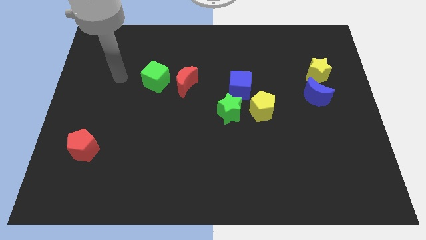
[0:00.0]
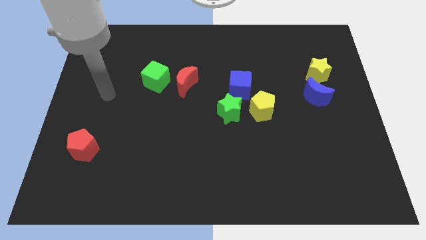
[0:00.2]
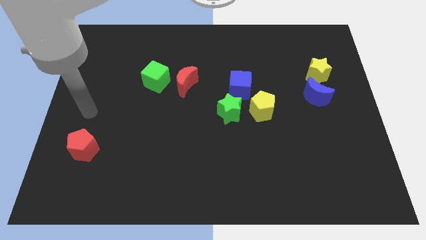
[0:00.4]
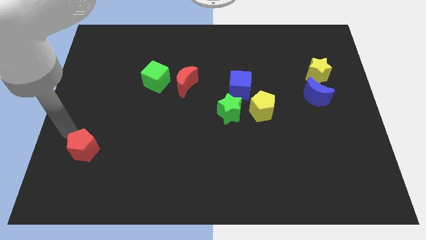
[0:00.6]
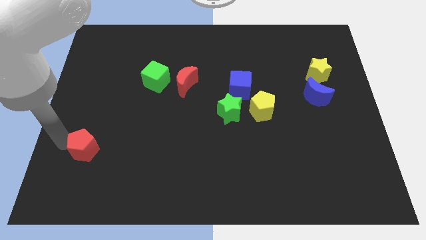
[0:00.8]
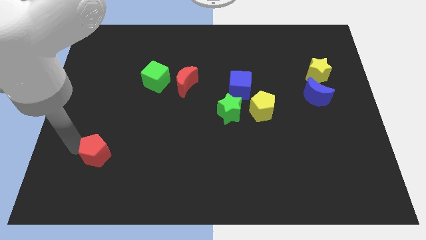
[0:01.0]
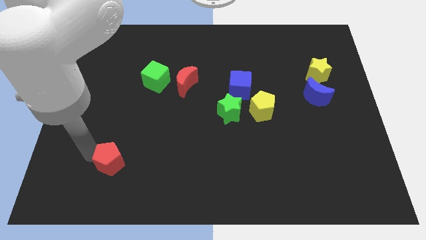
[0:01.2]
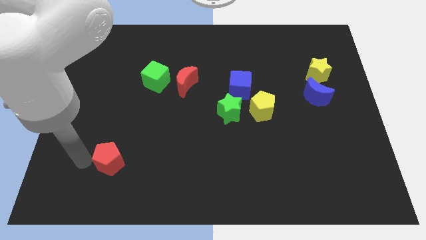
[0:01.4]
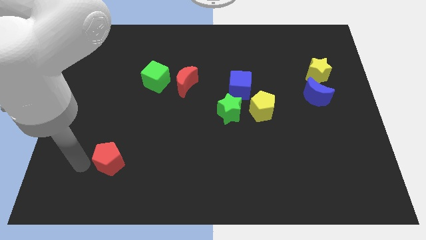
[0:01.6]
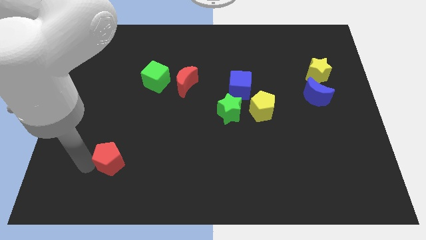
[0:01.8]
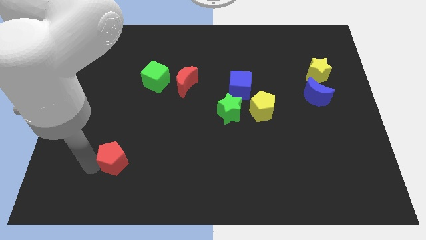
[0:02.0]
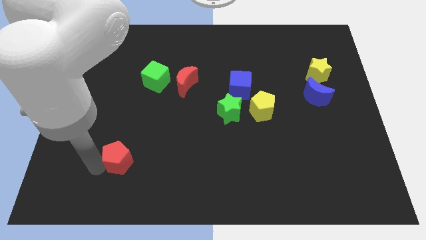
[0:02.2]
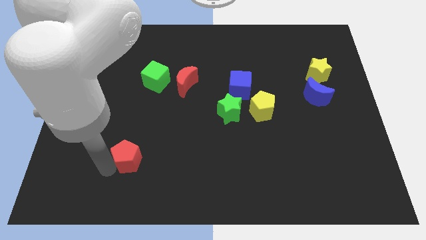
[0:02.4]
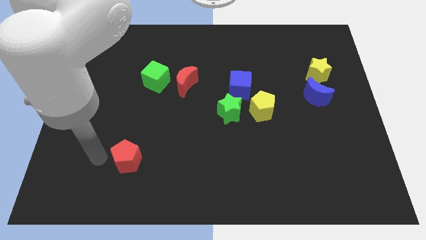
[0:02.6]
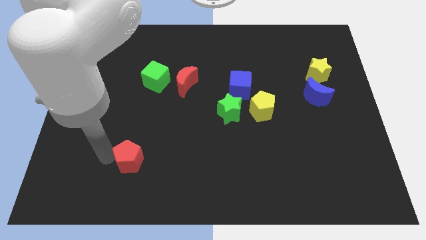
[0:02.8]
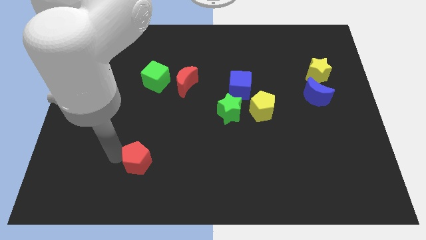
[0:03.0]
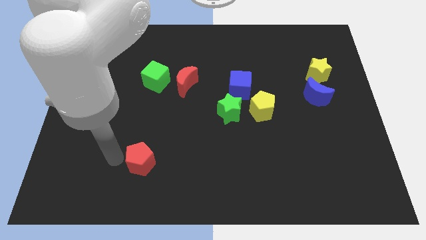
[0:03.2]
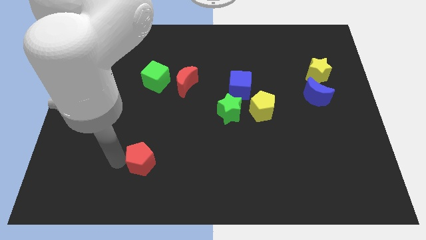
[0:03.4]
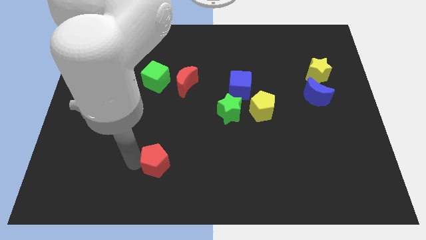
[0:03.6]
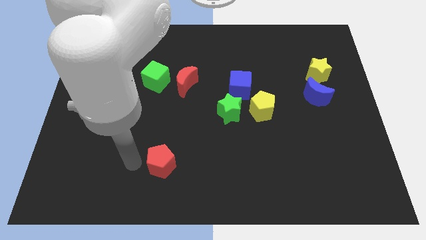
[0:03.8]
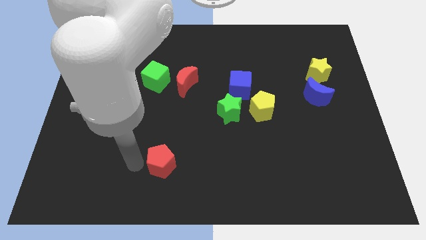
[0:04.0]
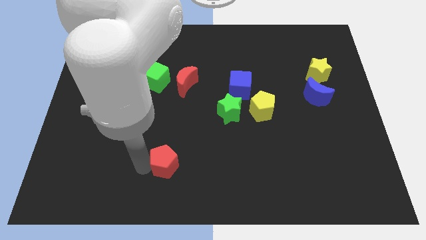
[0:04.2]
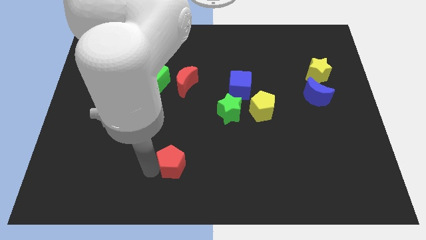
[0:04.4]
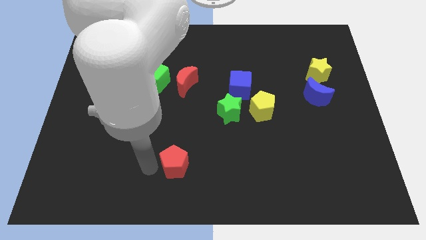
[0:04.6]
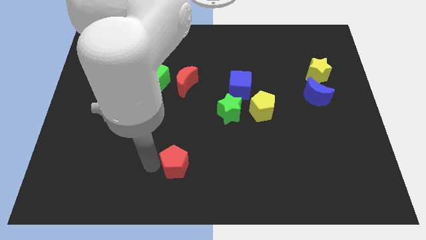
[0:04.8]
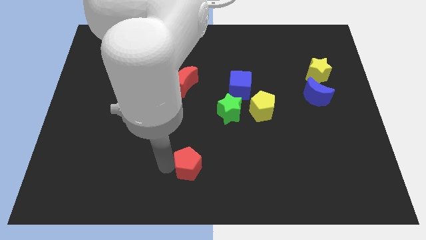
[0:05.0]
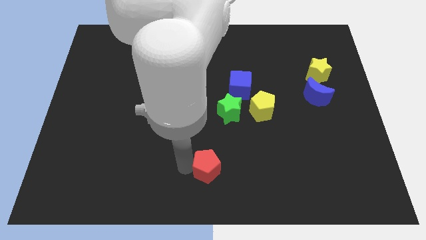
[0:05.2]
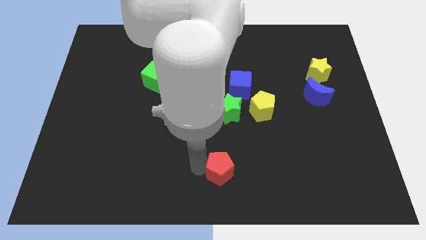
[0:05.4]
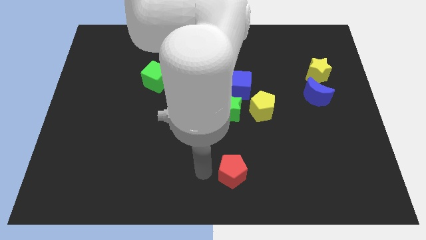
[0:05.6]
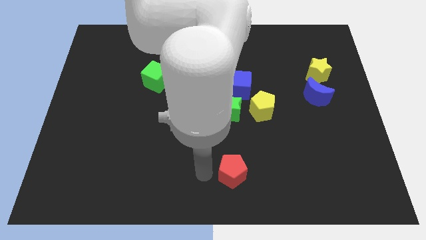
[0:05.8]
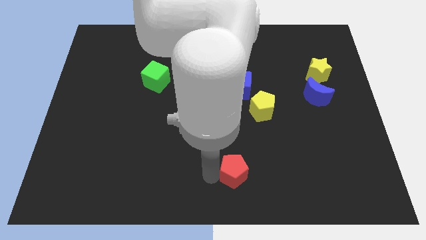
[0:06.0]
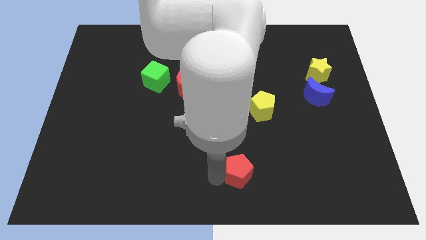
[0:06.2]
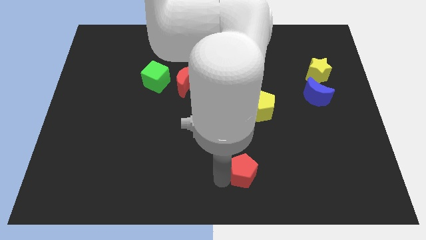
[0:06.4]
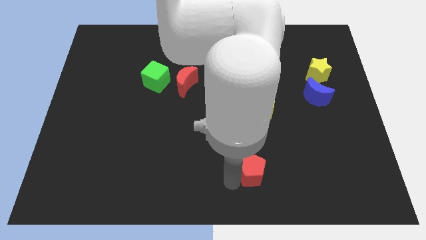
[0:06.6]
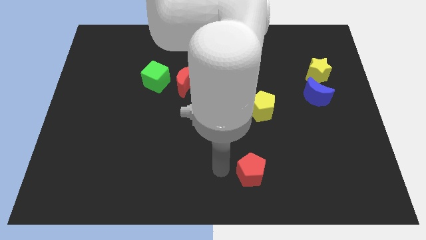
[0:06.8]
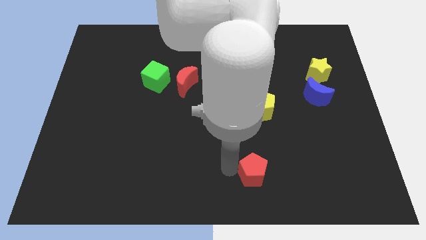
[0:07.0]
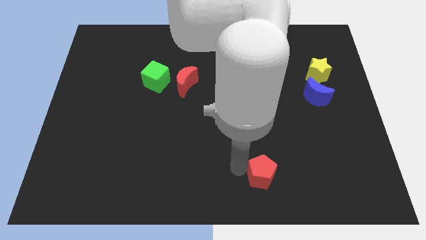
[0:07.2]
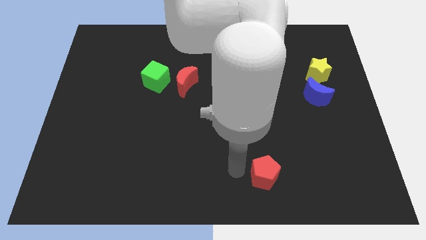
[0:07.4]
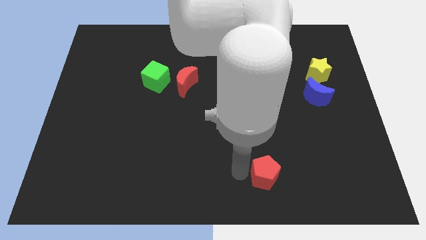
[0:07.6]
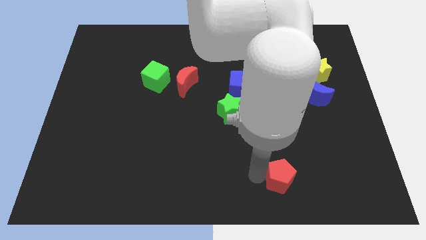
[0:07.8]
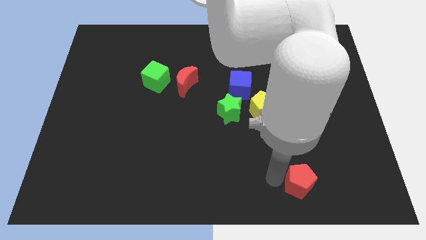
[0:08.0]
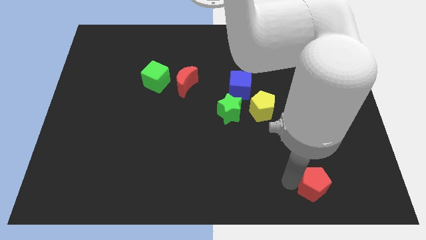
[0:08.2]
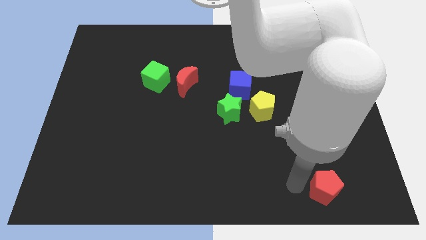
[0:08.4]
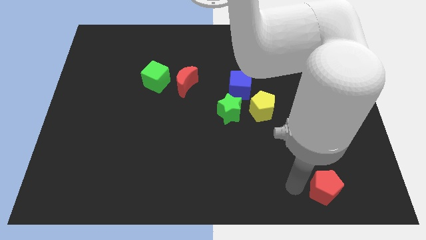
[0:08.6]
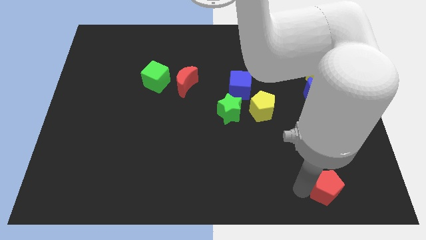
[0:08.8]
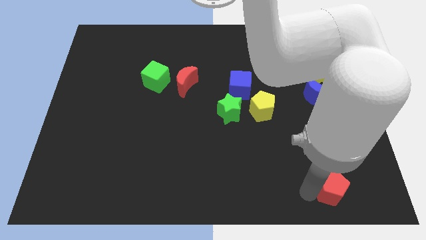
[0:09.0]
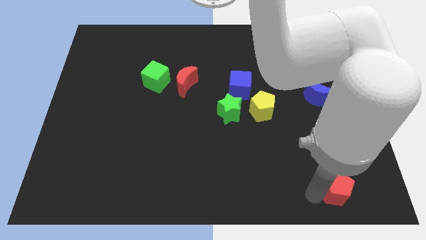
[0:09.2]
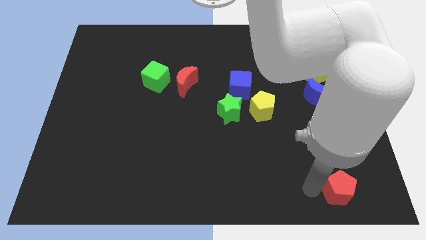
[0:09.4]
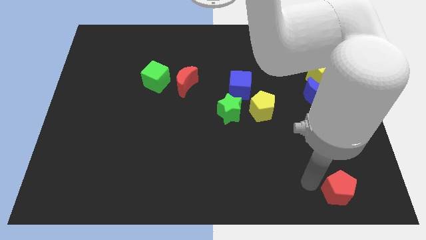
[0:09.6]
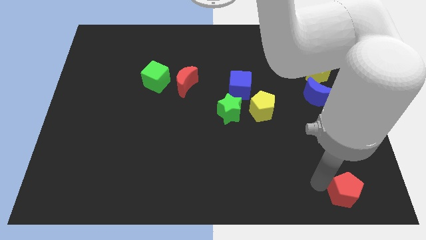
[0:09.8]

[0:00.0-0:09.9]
move the red pentagon to the bottom right of the board

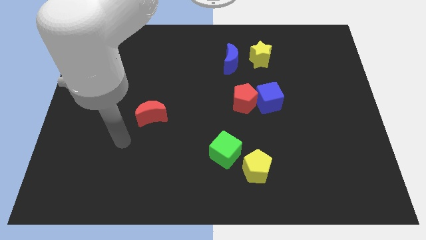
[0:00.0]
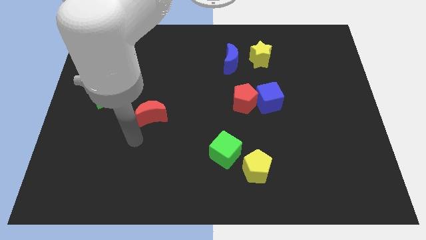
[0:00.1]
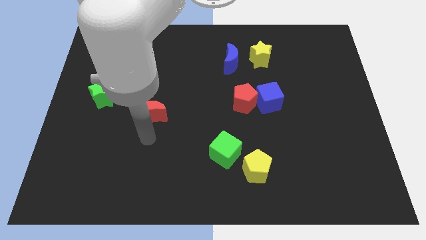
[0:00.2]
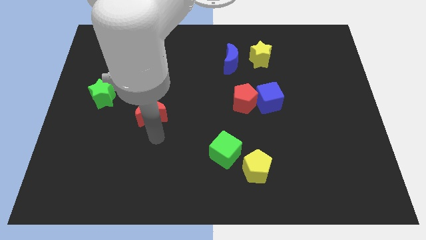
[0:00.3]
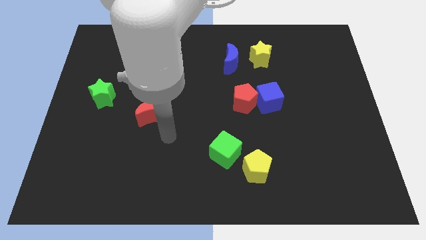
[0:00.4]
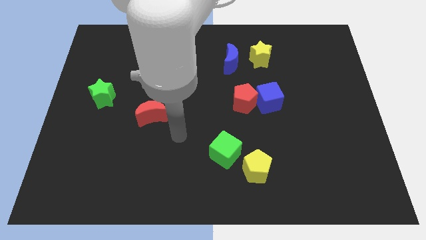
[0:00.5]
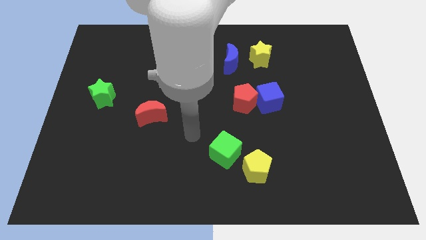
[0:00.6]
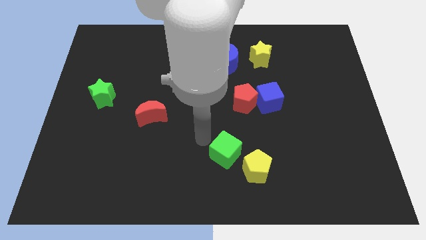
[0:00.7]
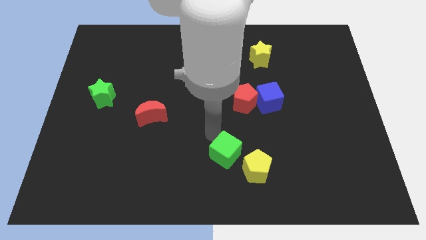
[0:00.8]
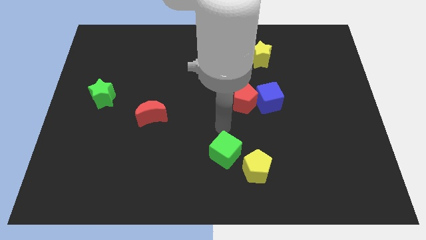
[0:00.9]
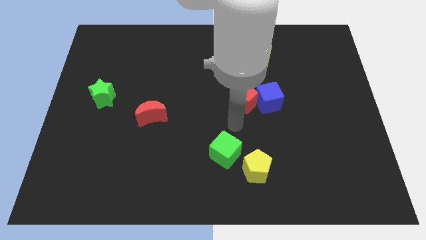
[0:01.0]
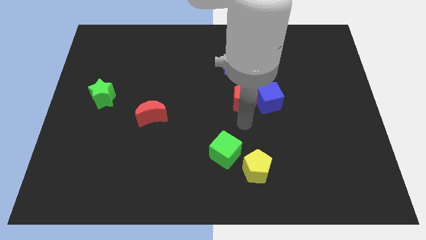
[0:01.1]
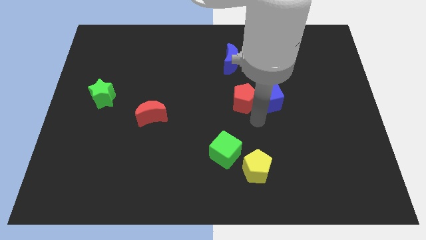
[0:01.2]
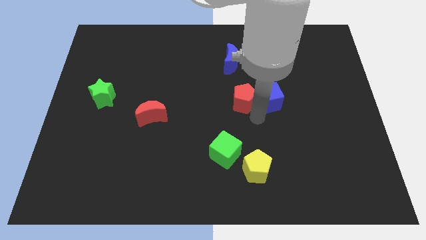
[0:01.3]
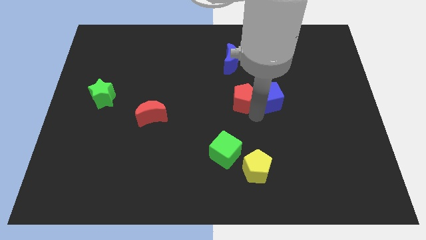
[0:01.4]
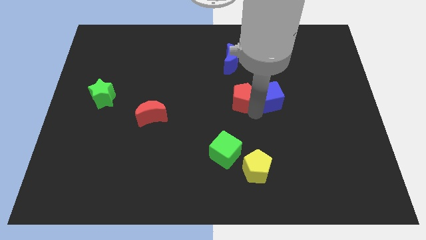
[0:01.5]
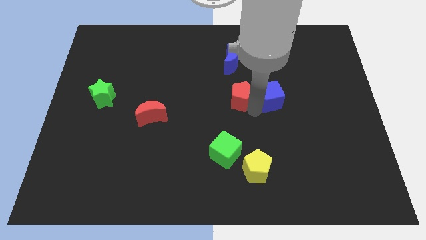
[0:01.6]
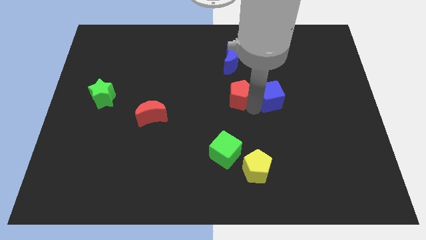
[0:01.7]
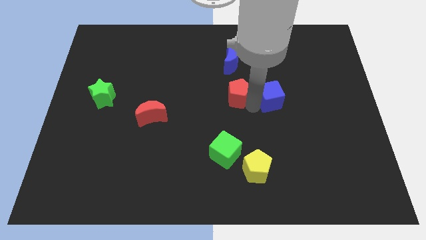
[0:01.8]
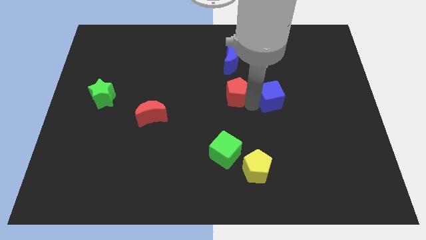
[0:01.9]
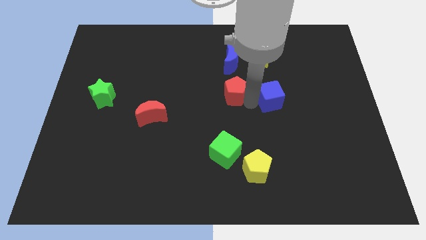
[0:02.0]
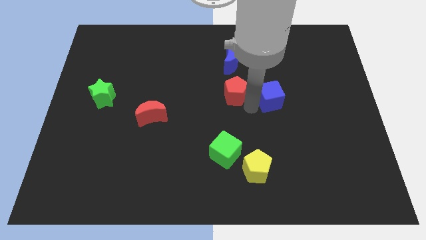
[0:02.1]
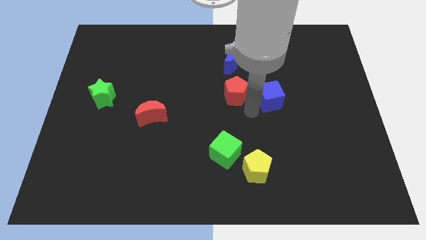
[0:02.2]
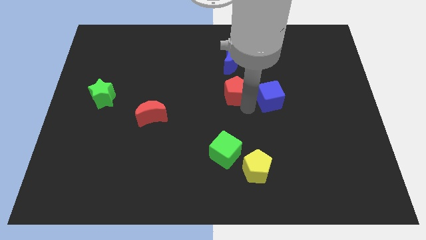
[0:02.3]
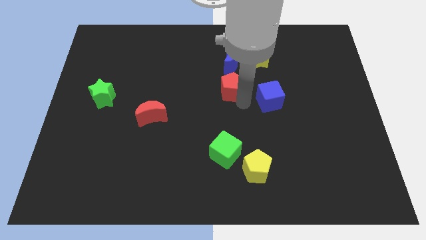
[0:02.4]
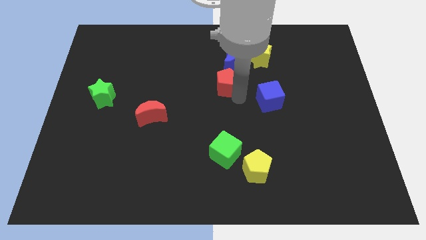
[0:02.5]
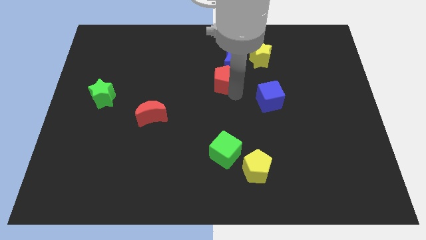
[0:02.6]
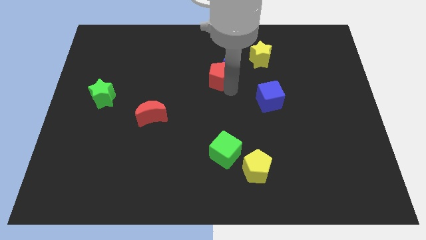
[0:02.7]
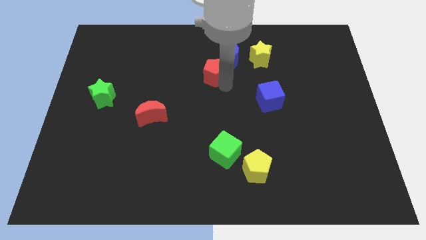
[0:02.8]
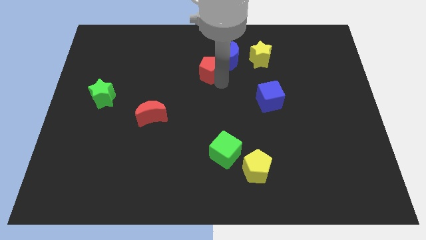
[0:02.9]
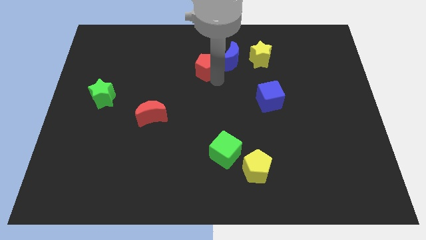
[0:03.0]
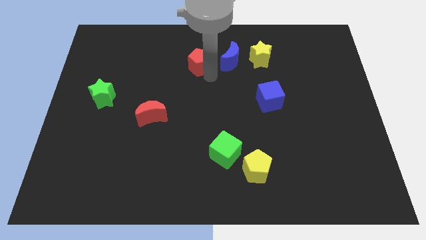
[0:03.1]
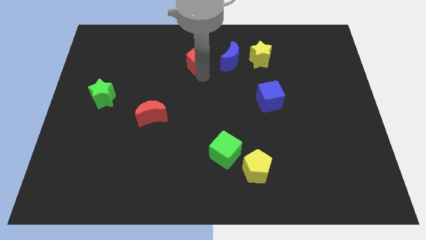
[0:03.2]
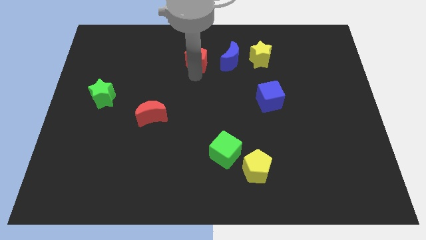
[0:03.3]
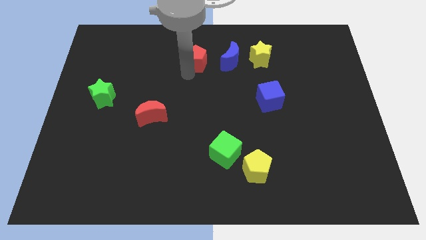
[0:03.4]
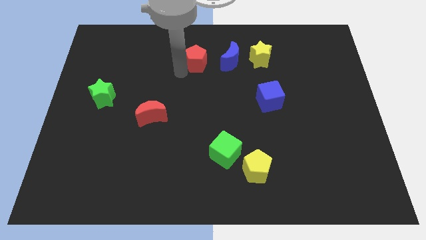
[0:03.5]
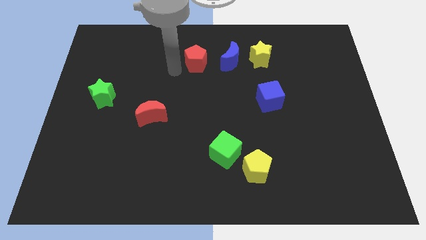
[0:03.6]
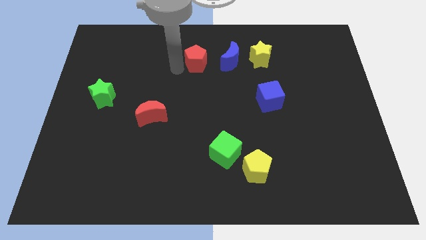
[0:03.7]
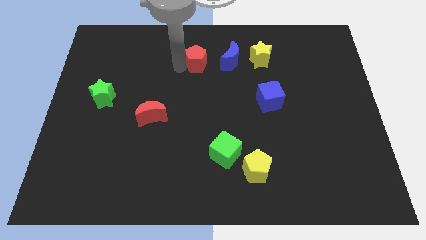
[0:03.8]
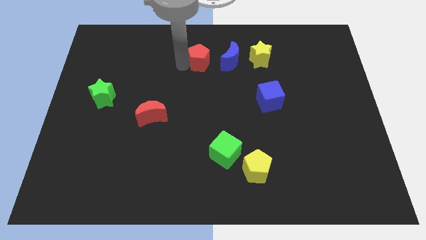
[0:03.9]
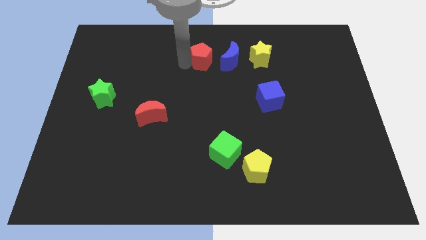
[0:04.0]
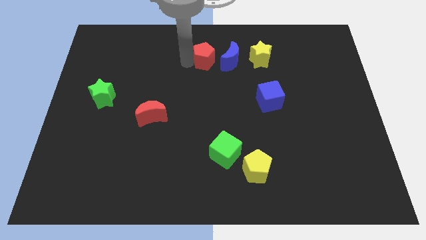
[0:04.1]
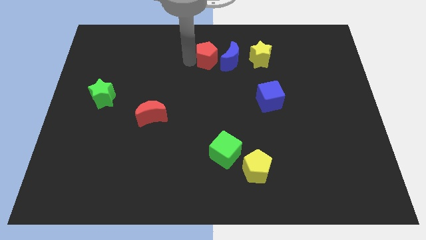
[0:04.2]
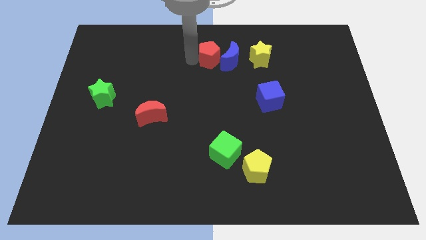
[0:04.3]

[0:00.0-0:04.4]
put the red pentagon to the towards your base
